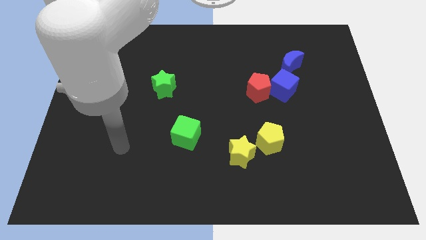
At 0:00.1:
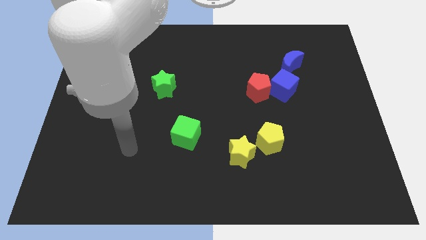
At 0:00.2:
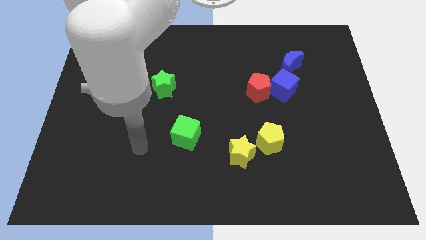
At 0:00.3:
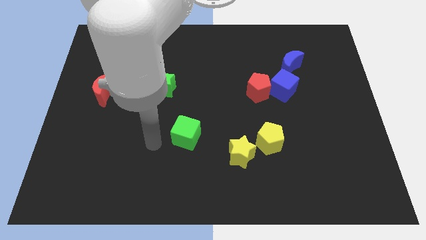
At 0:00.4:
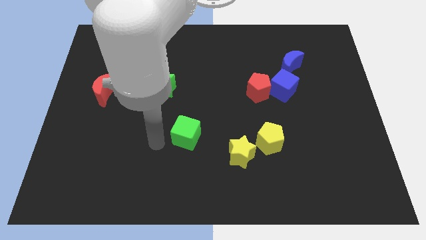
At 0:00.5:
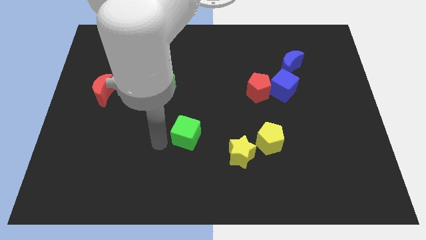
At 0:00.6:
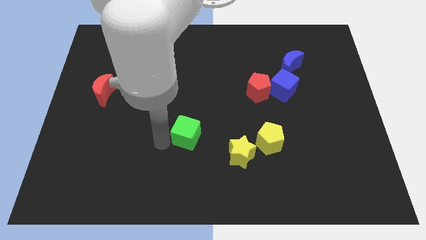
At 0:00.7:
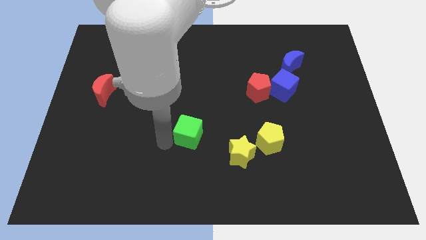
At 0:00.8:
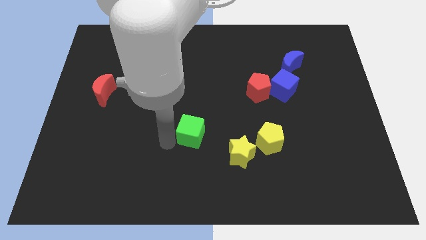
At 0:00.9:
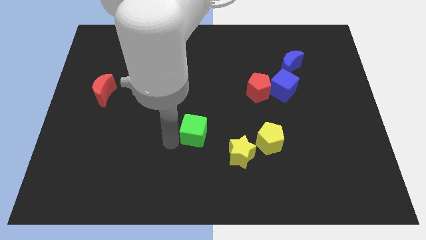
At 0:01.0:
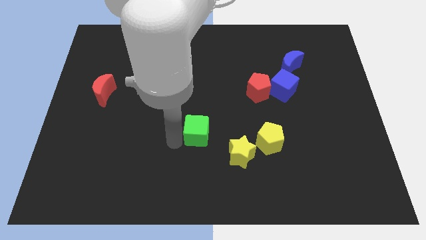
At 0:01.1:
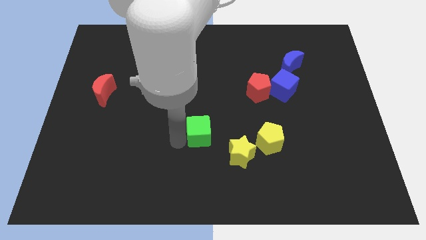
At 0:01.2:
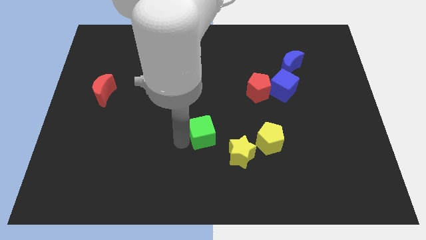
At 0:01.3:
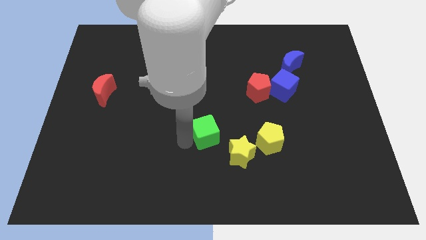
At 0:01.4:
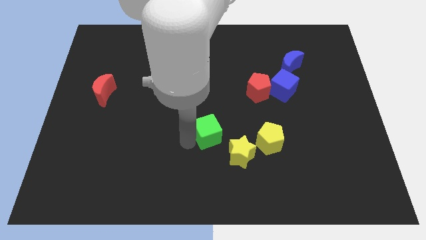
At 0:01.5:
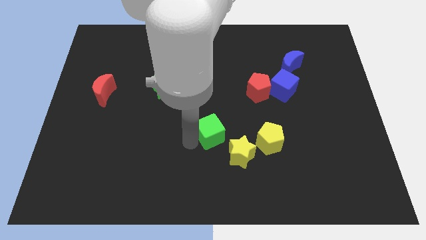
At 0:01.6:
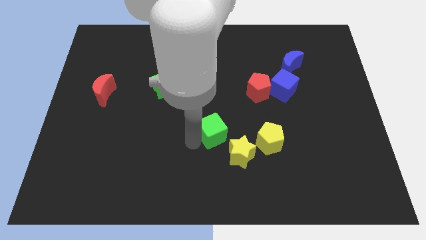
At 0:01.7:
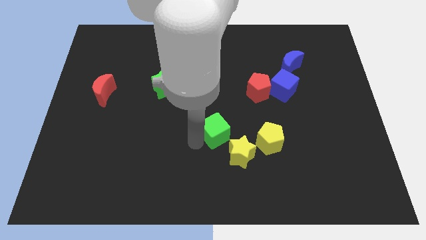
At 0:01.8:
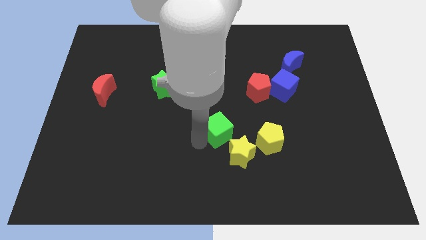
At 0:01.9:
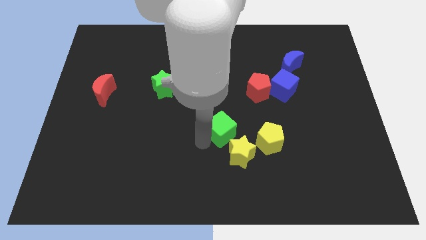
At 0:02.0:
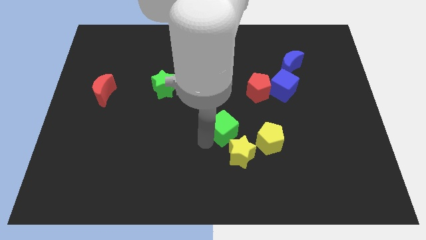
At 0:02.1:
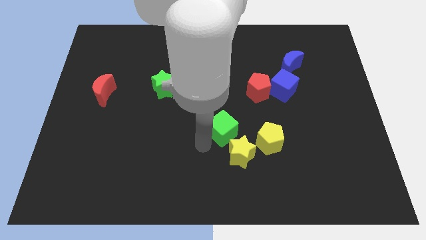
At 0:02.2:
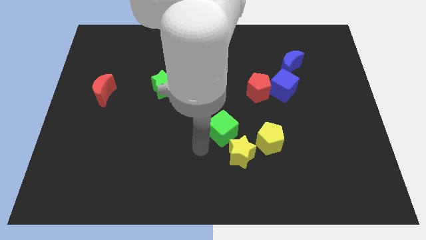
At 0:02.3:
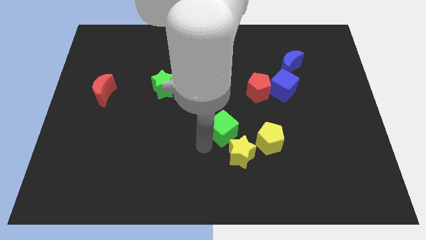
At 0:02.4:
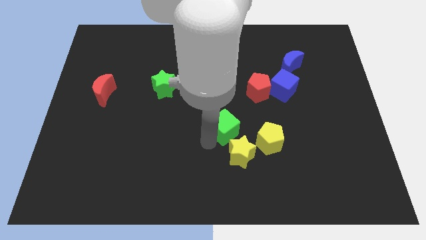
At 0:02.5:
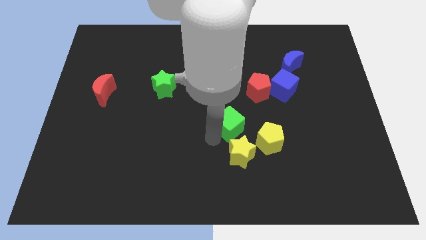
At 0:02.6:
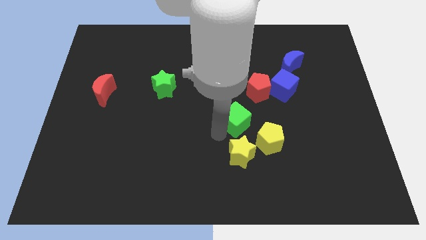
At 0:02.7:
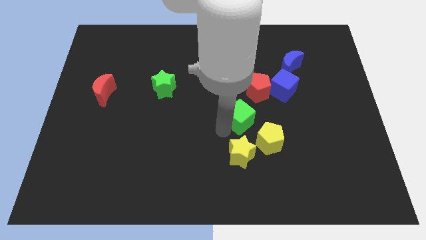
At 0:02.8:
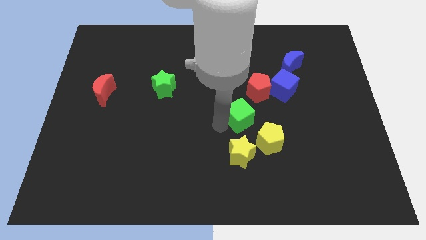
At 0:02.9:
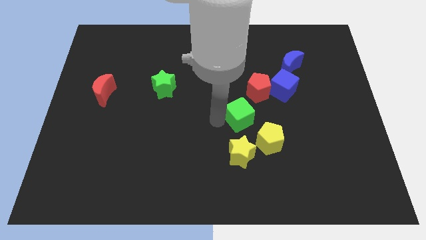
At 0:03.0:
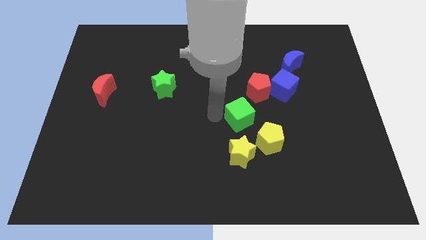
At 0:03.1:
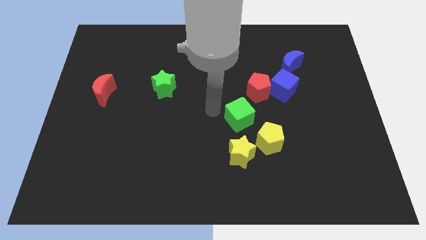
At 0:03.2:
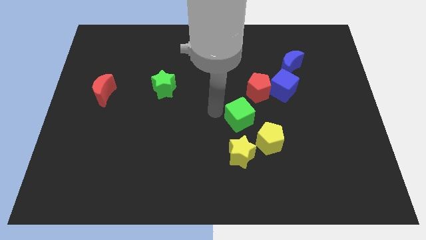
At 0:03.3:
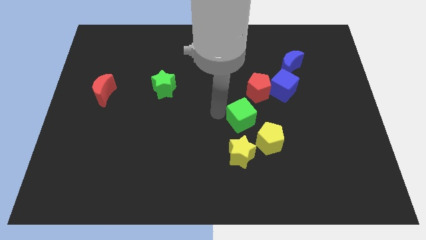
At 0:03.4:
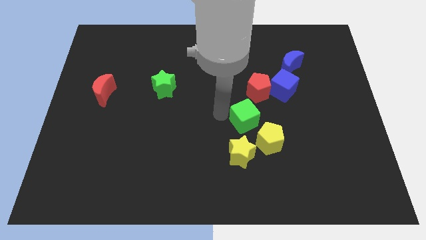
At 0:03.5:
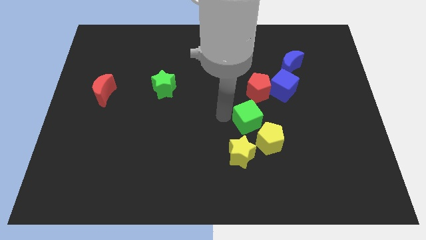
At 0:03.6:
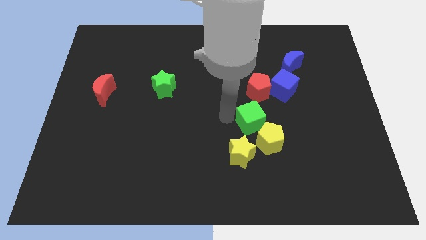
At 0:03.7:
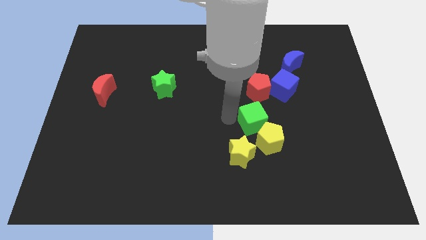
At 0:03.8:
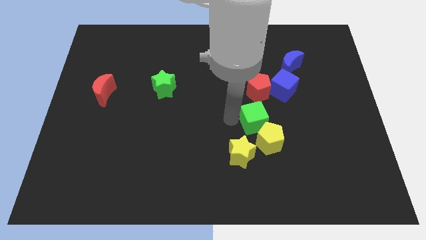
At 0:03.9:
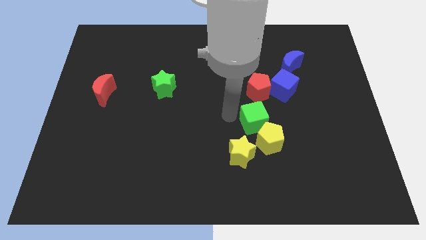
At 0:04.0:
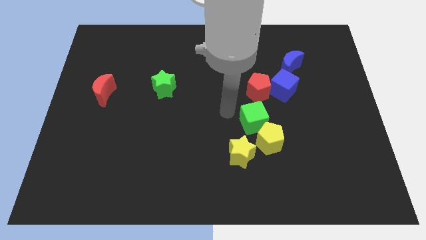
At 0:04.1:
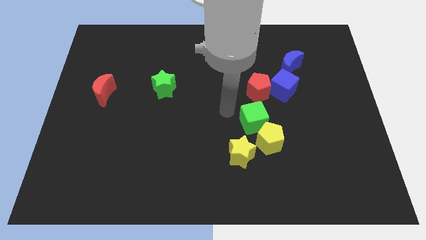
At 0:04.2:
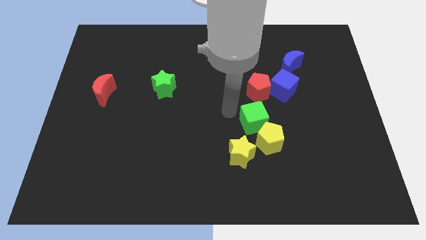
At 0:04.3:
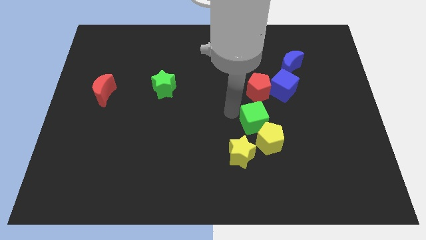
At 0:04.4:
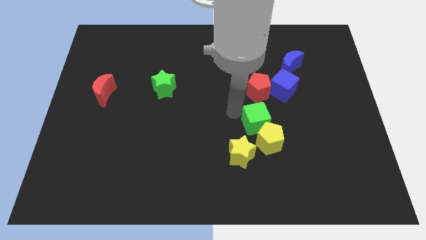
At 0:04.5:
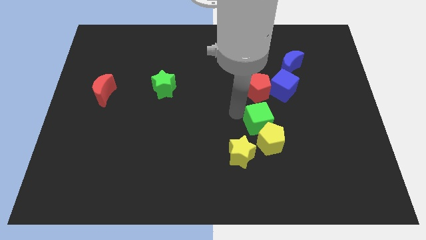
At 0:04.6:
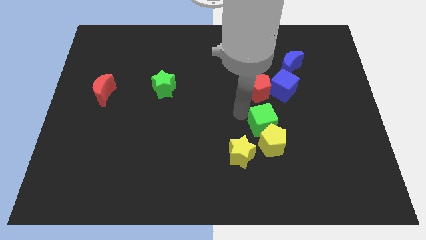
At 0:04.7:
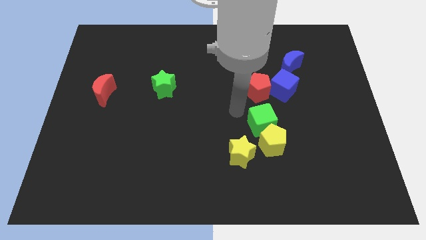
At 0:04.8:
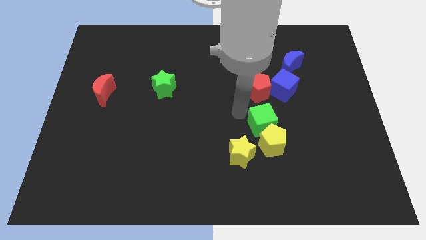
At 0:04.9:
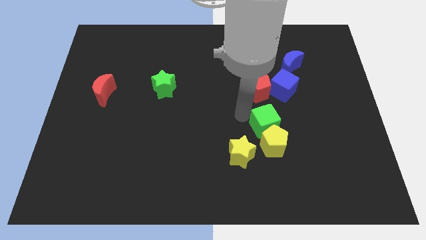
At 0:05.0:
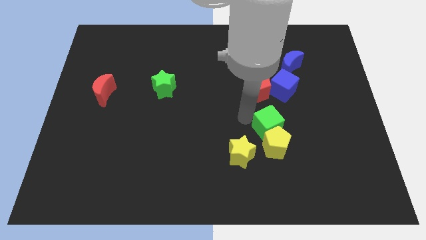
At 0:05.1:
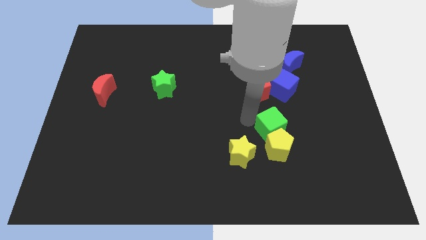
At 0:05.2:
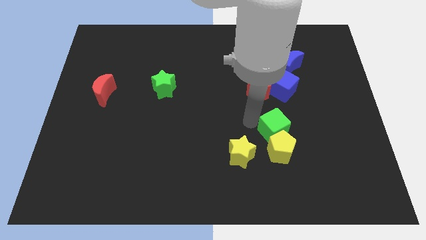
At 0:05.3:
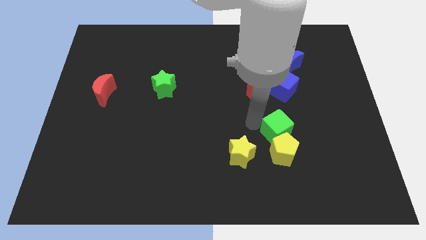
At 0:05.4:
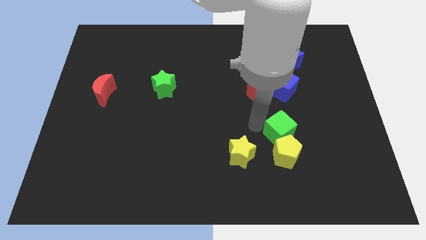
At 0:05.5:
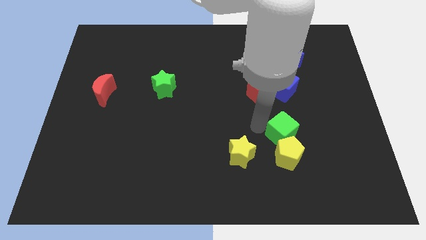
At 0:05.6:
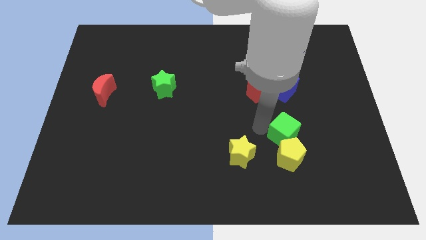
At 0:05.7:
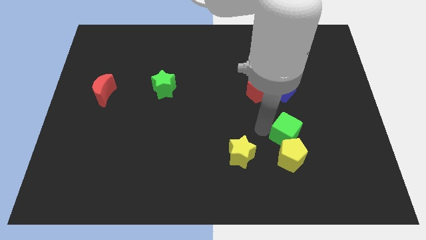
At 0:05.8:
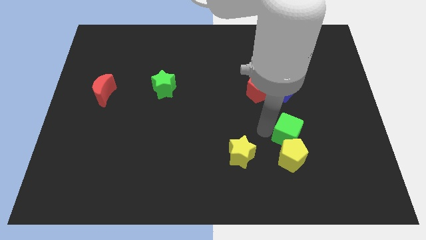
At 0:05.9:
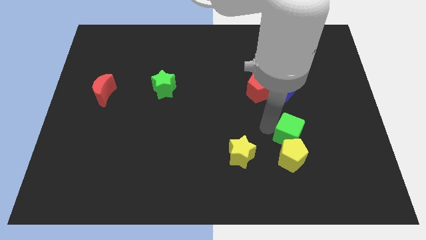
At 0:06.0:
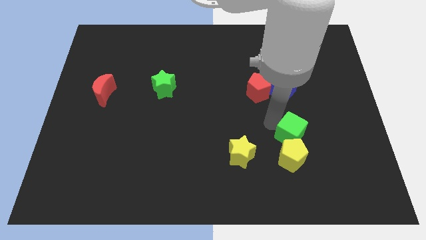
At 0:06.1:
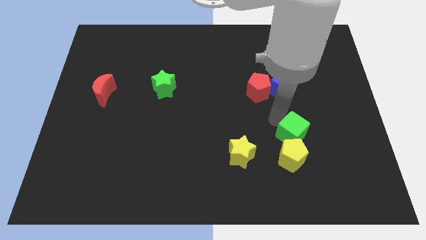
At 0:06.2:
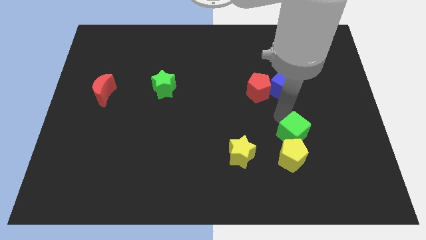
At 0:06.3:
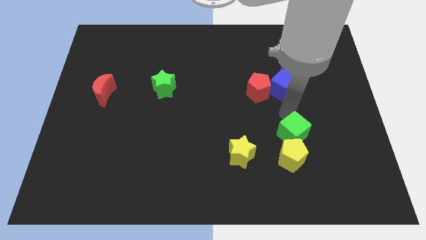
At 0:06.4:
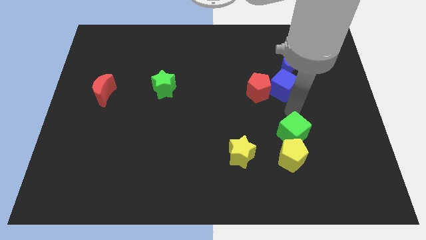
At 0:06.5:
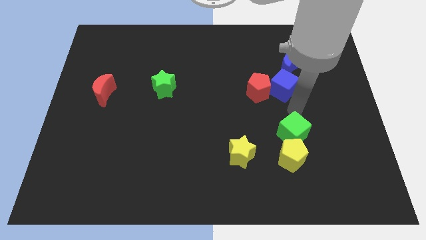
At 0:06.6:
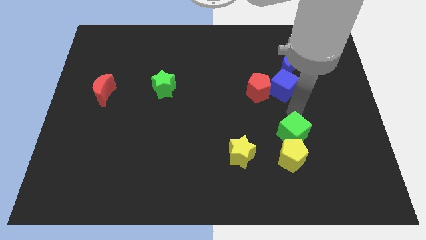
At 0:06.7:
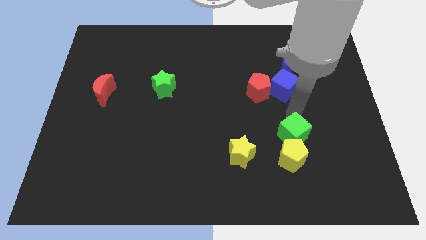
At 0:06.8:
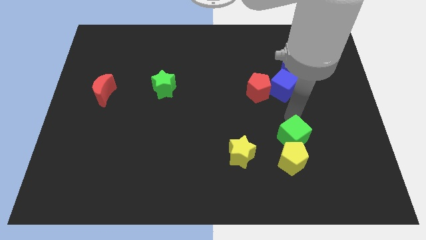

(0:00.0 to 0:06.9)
put the green cube right of the yellow star

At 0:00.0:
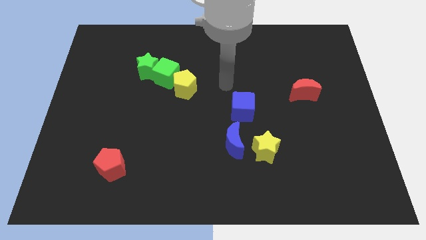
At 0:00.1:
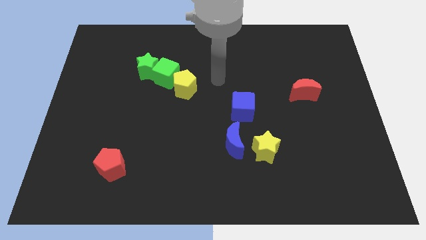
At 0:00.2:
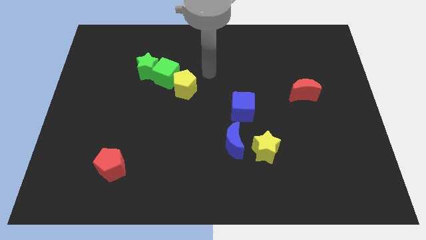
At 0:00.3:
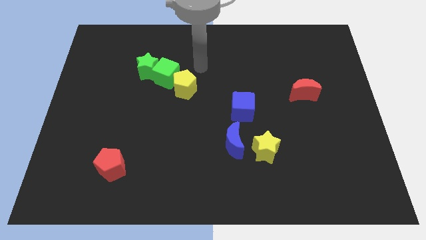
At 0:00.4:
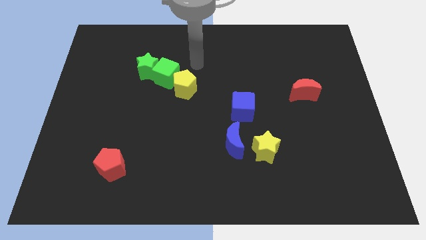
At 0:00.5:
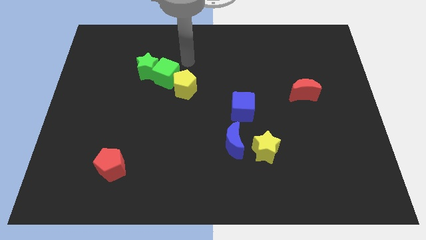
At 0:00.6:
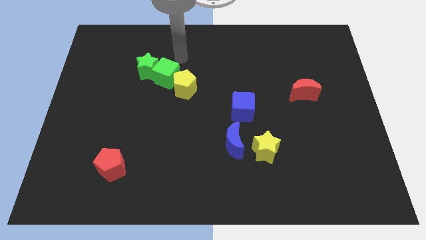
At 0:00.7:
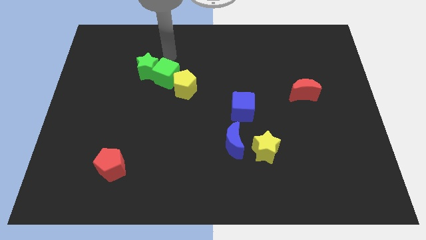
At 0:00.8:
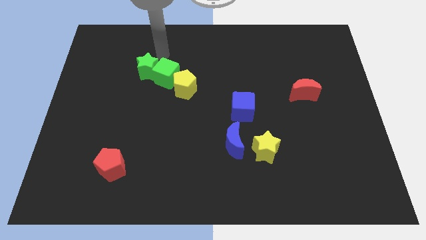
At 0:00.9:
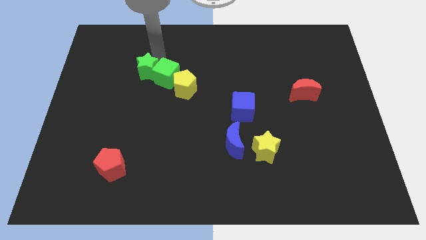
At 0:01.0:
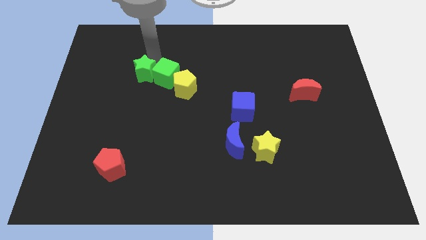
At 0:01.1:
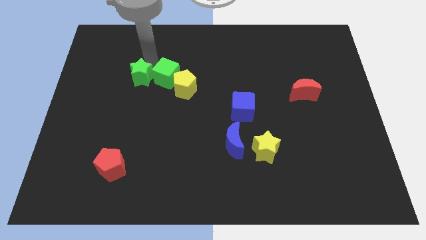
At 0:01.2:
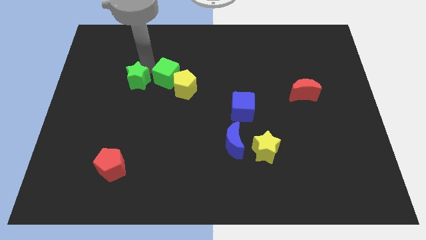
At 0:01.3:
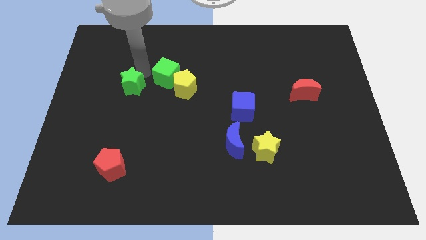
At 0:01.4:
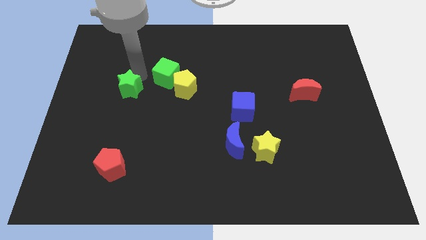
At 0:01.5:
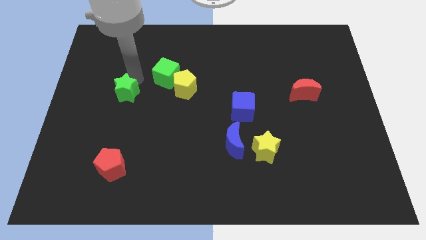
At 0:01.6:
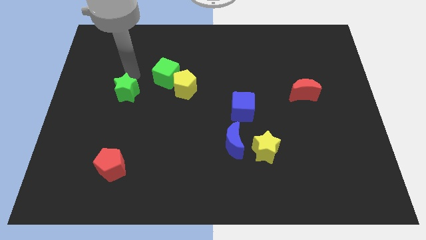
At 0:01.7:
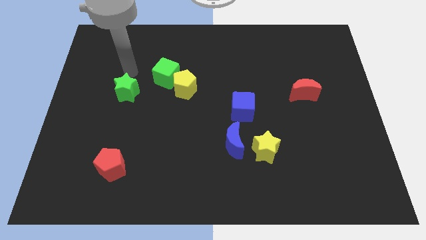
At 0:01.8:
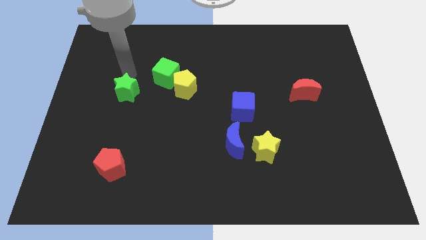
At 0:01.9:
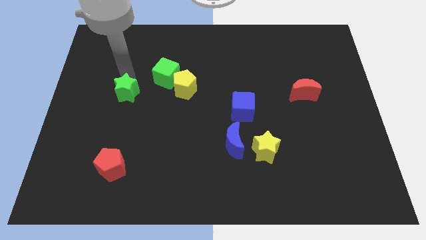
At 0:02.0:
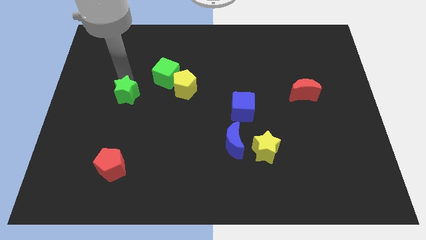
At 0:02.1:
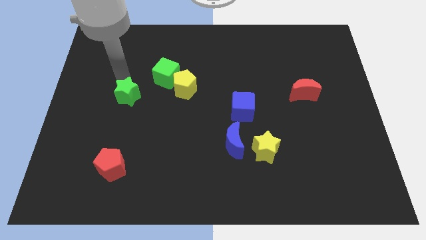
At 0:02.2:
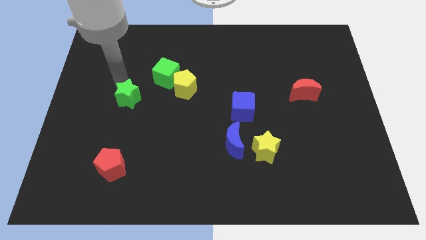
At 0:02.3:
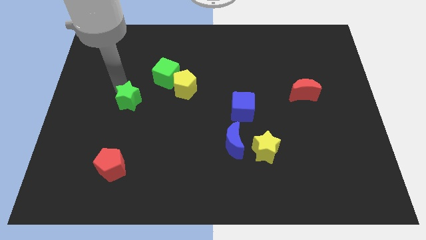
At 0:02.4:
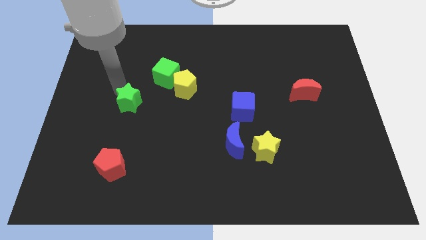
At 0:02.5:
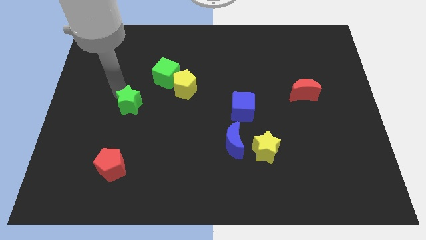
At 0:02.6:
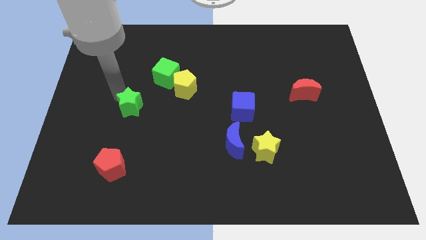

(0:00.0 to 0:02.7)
slide the green star to the top of the red pentagon
